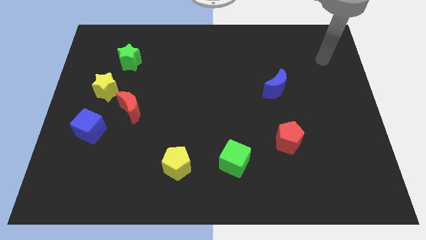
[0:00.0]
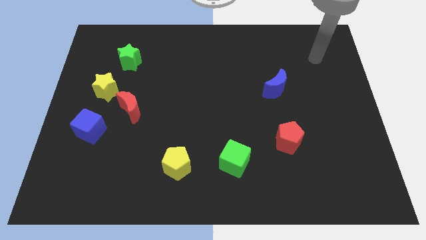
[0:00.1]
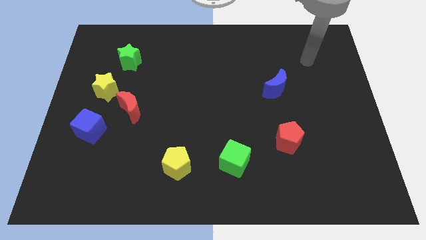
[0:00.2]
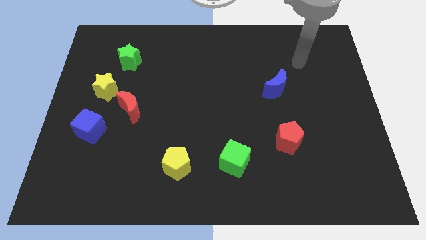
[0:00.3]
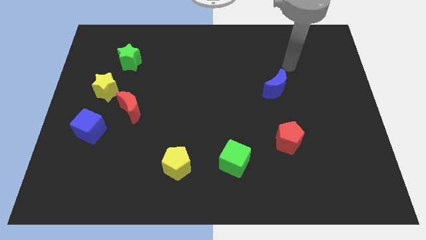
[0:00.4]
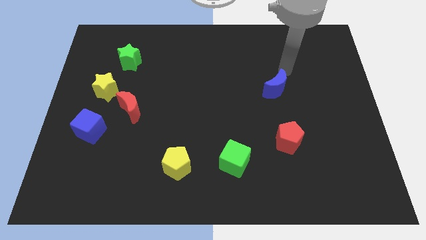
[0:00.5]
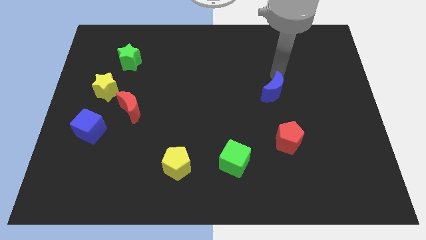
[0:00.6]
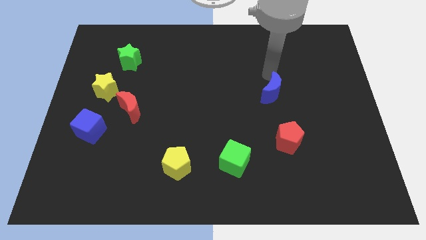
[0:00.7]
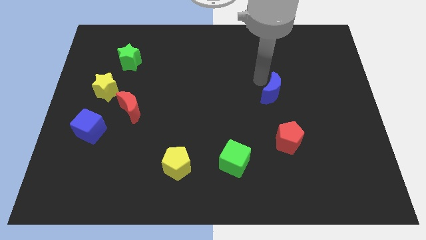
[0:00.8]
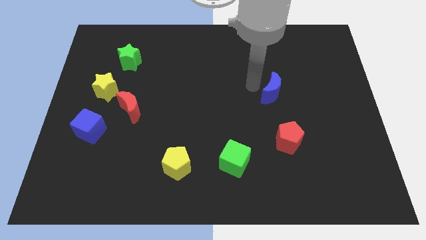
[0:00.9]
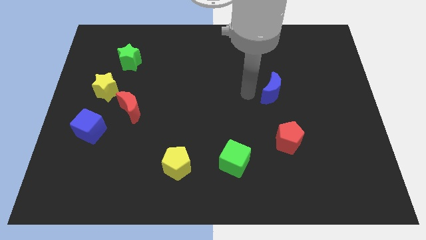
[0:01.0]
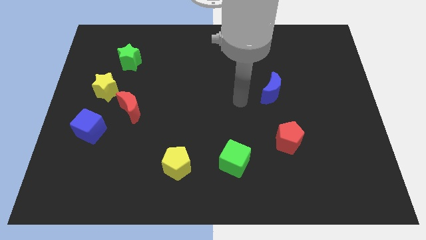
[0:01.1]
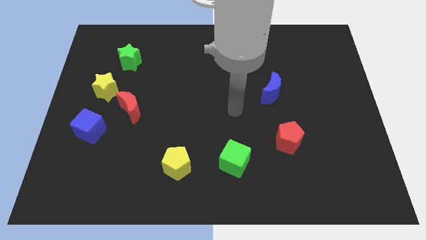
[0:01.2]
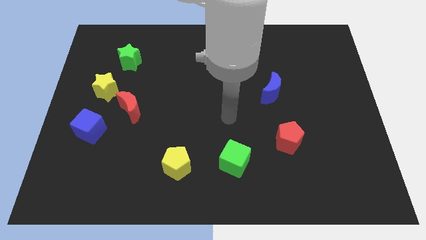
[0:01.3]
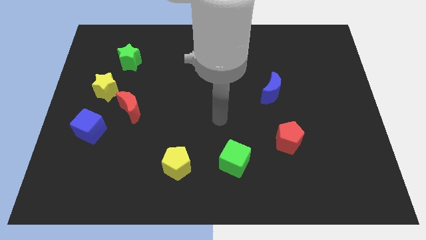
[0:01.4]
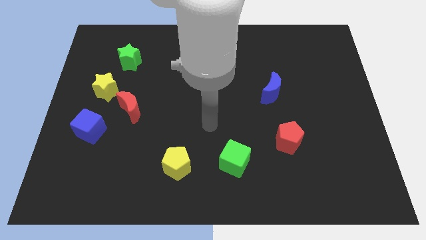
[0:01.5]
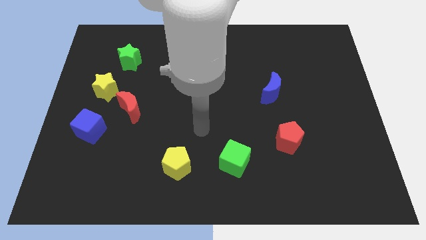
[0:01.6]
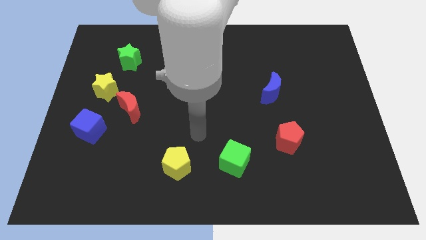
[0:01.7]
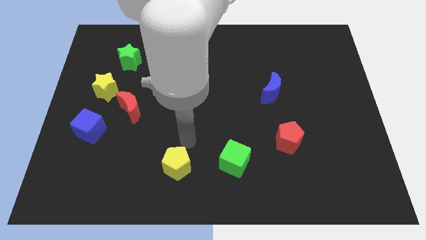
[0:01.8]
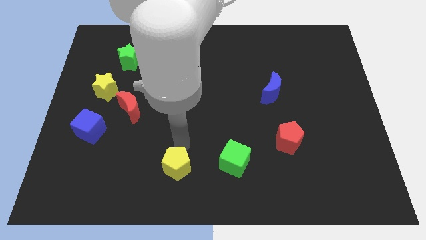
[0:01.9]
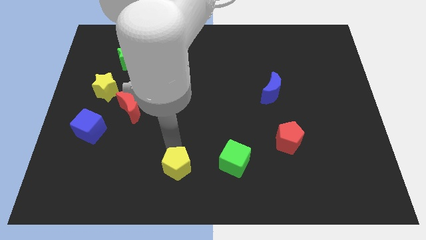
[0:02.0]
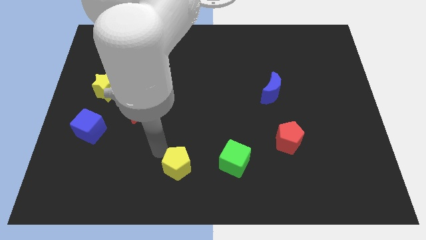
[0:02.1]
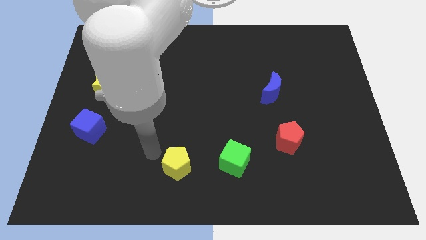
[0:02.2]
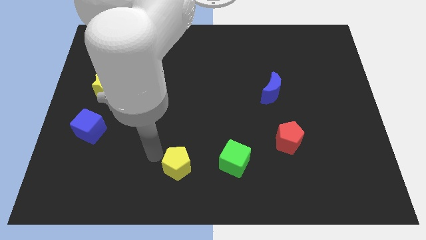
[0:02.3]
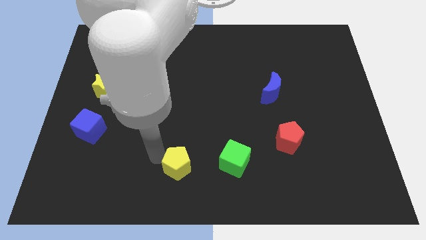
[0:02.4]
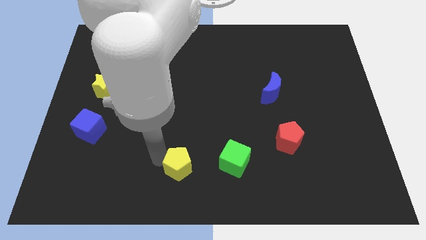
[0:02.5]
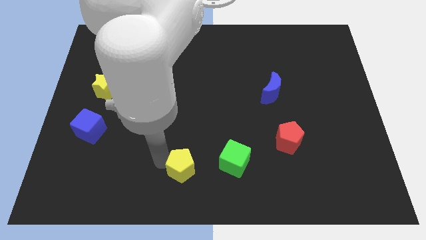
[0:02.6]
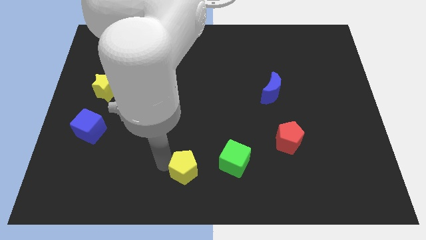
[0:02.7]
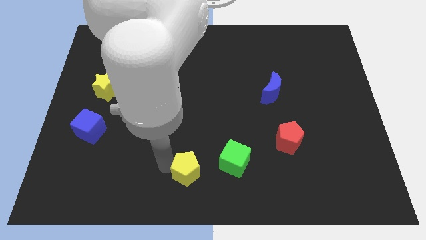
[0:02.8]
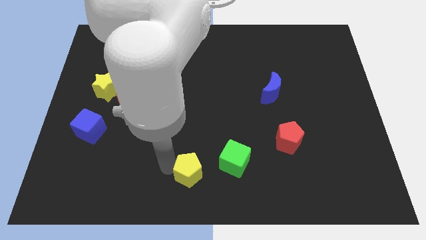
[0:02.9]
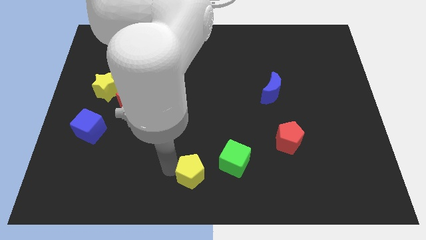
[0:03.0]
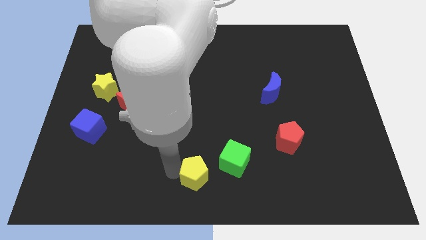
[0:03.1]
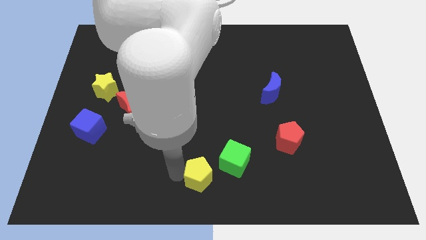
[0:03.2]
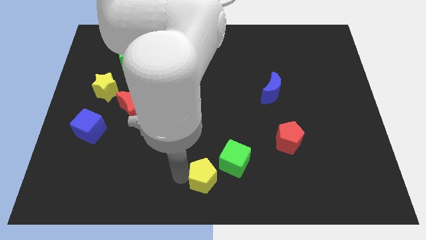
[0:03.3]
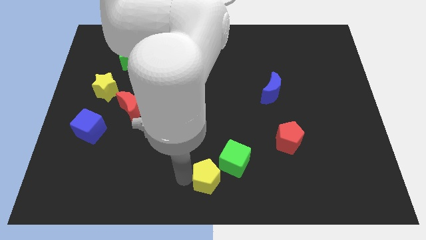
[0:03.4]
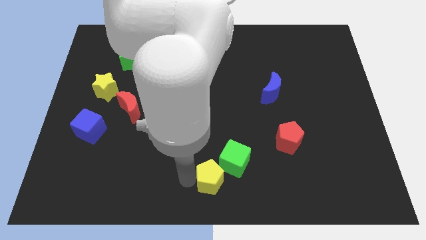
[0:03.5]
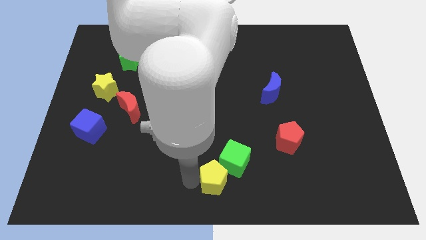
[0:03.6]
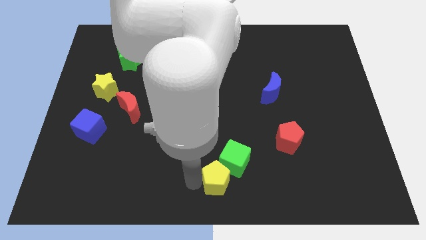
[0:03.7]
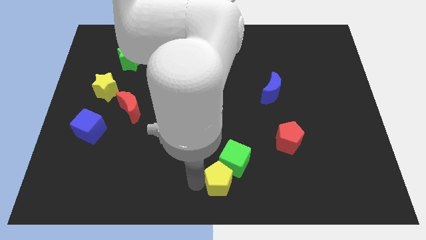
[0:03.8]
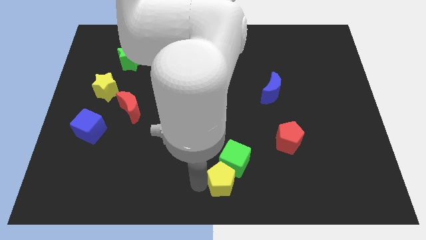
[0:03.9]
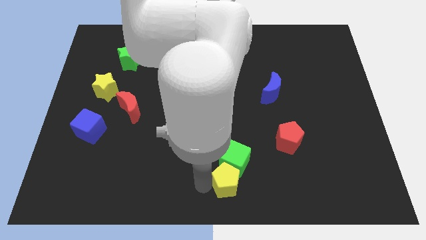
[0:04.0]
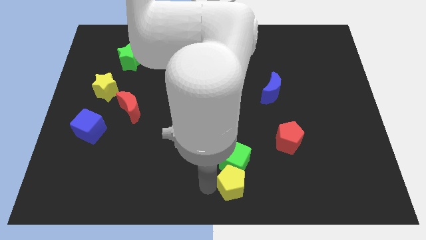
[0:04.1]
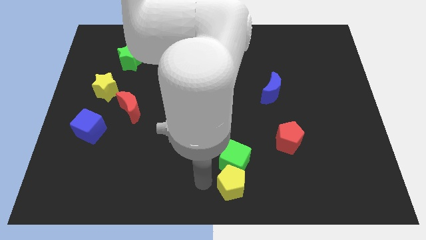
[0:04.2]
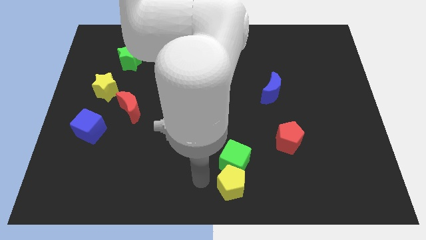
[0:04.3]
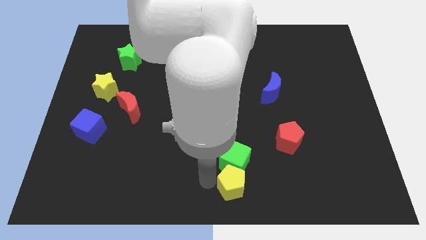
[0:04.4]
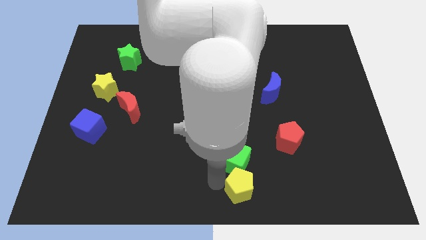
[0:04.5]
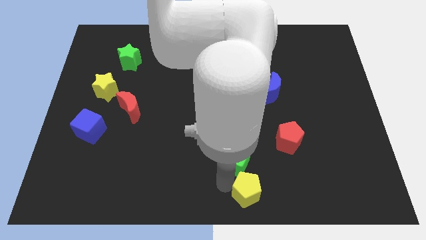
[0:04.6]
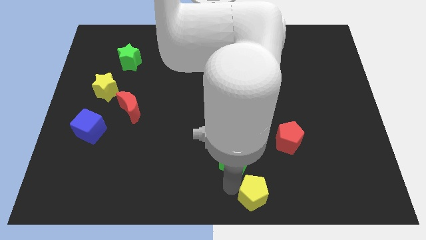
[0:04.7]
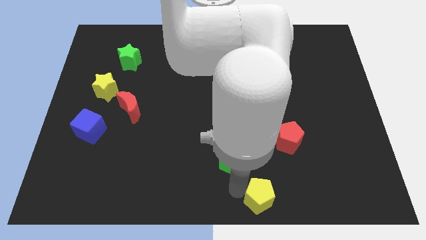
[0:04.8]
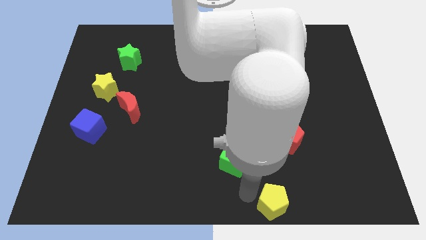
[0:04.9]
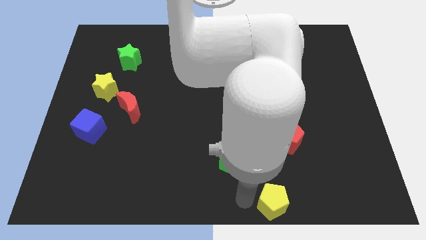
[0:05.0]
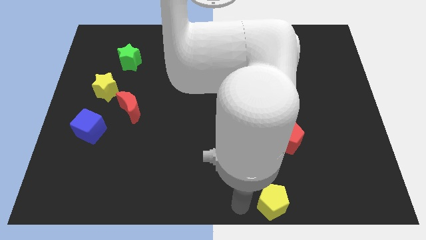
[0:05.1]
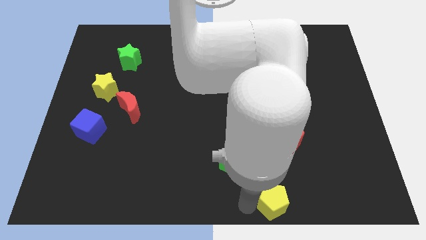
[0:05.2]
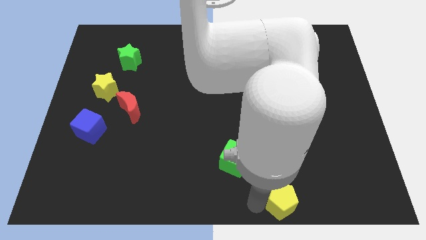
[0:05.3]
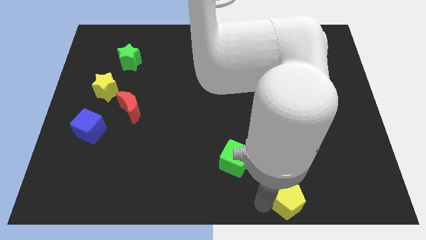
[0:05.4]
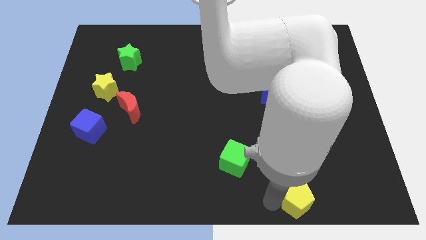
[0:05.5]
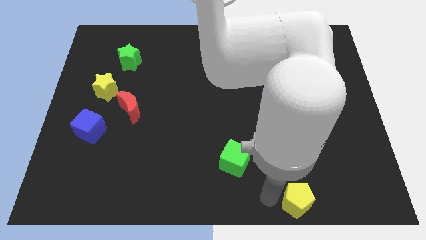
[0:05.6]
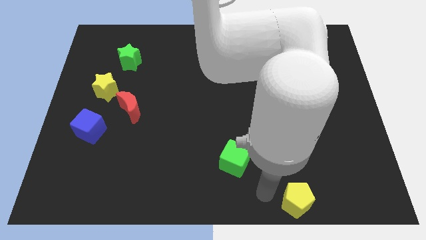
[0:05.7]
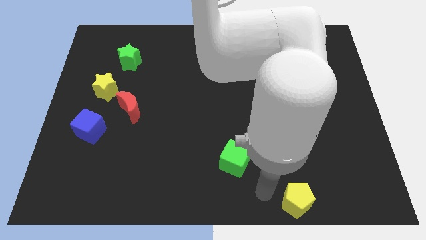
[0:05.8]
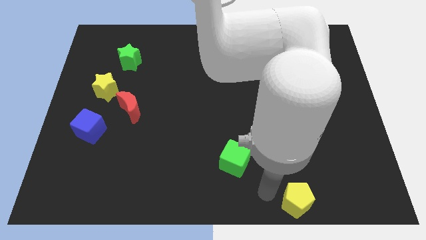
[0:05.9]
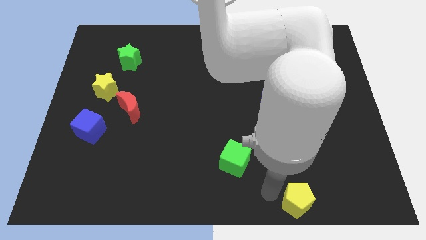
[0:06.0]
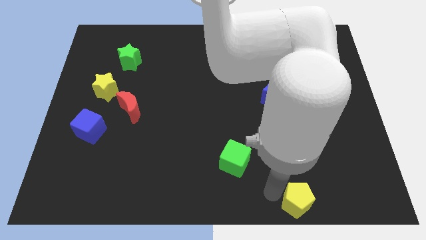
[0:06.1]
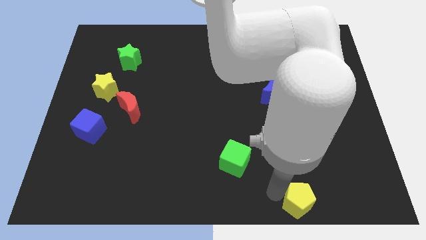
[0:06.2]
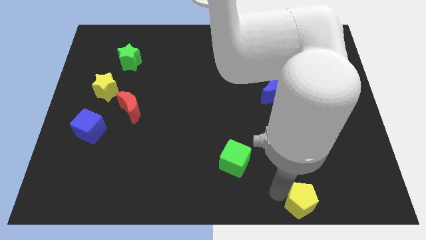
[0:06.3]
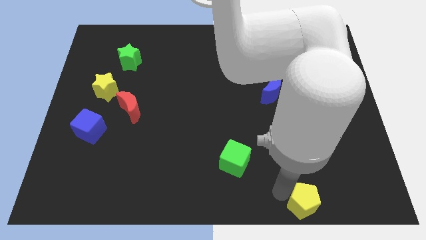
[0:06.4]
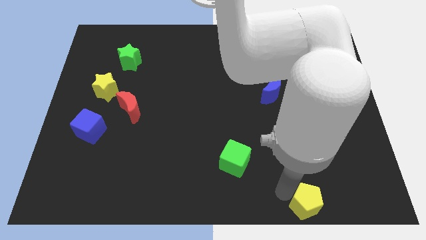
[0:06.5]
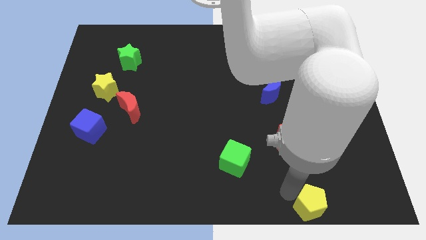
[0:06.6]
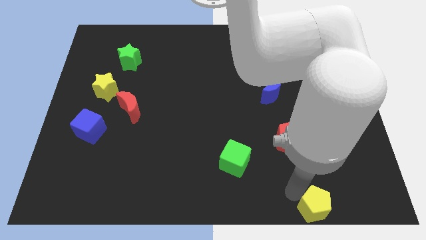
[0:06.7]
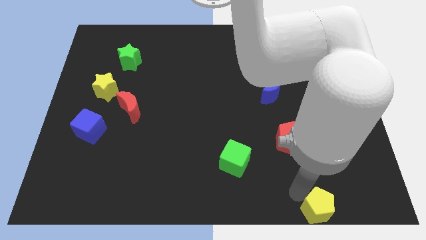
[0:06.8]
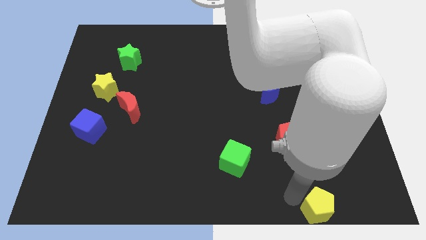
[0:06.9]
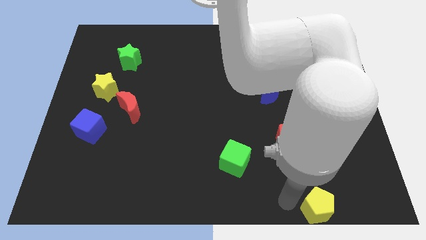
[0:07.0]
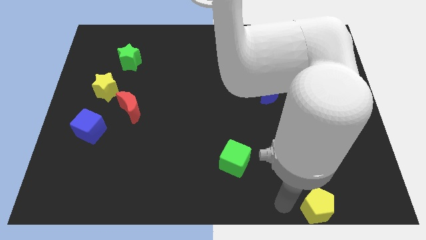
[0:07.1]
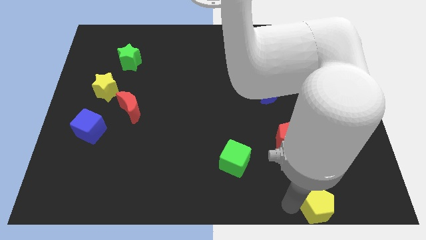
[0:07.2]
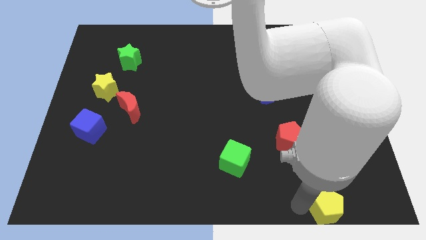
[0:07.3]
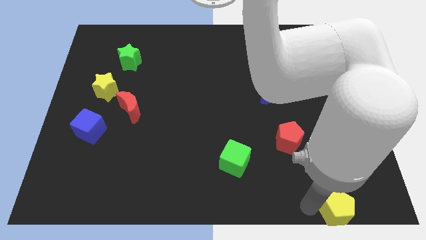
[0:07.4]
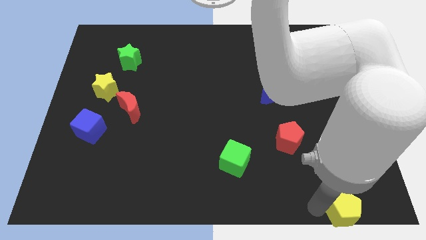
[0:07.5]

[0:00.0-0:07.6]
move the yellow pentagon to the bottom right of the board
